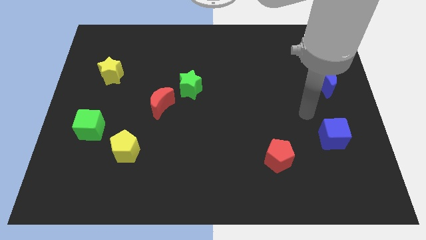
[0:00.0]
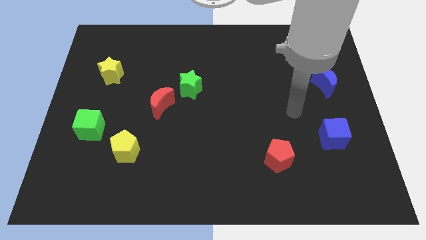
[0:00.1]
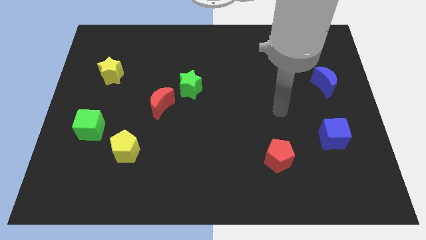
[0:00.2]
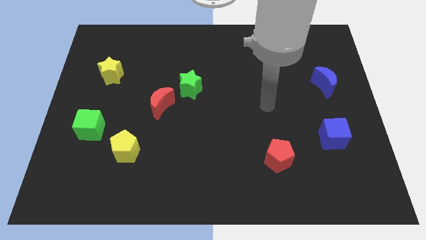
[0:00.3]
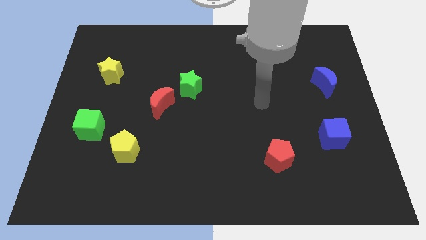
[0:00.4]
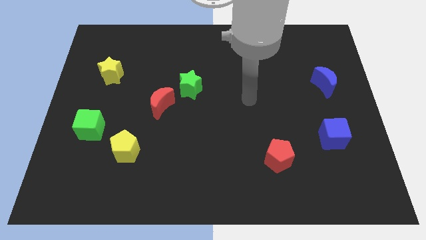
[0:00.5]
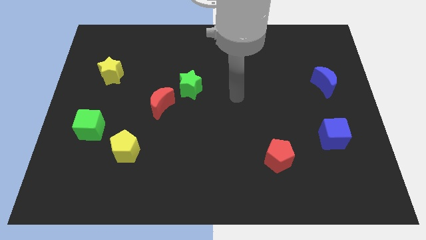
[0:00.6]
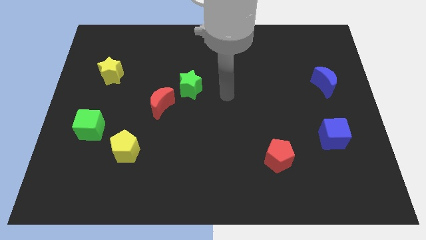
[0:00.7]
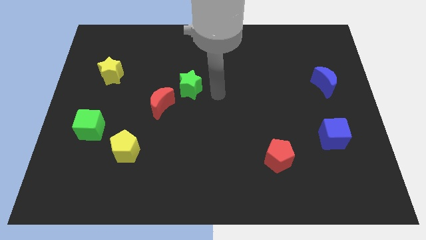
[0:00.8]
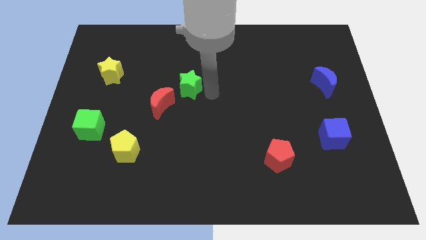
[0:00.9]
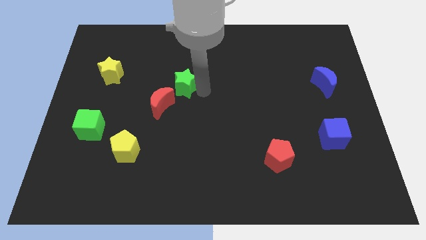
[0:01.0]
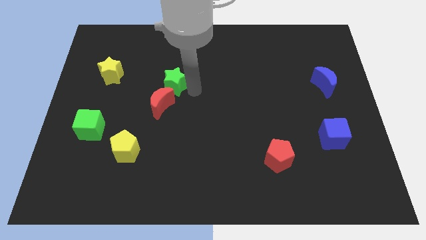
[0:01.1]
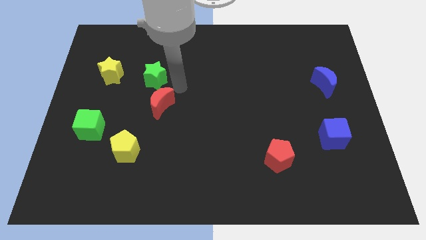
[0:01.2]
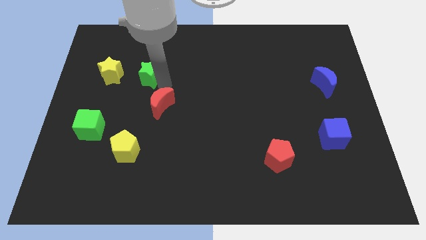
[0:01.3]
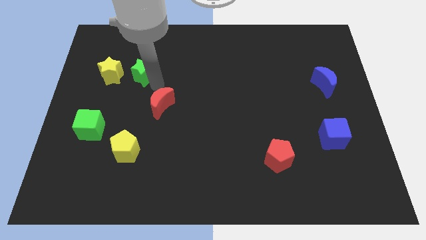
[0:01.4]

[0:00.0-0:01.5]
move the red moon away from the green star

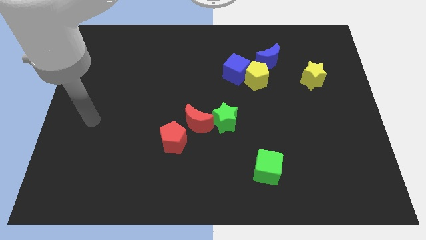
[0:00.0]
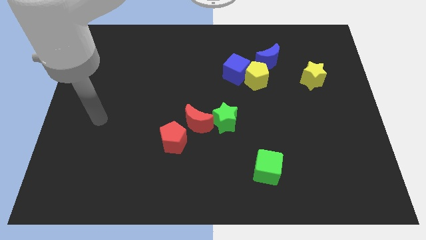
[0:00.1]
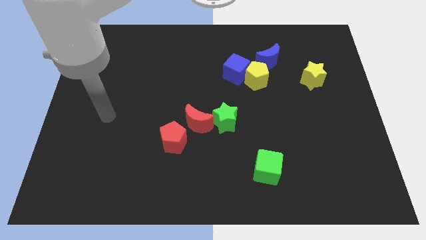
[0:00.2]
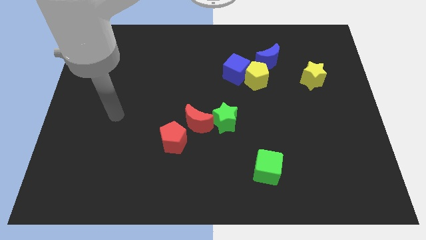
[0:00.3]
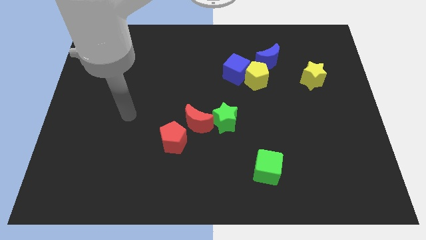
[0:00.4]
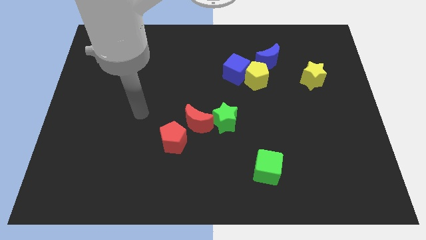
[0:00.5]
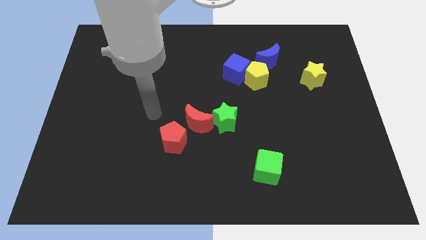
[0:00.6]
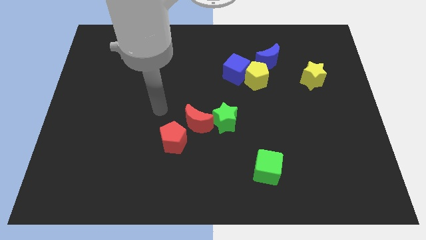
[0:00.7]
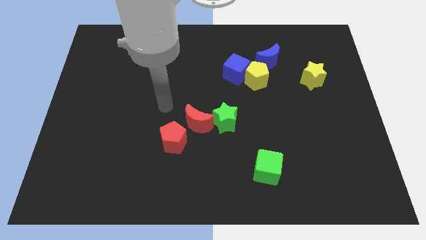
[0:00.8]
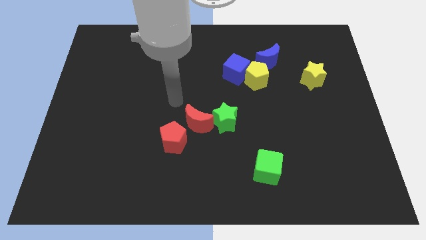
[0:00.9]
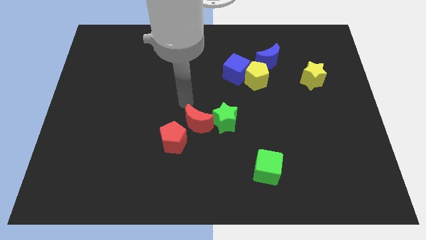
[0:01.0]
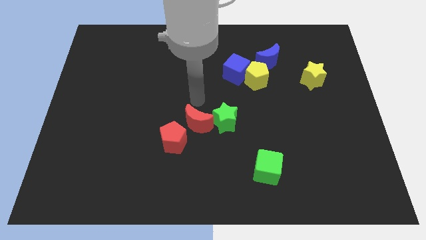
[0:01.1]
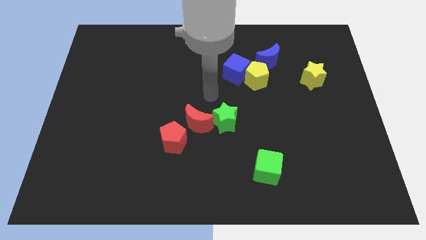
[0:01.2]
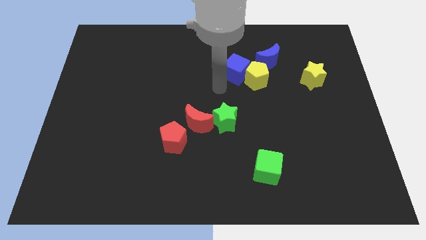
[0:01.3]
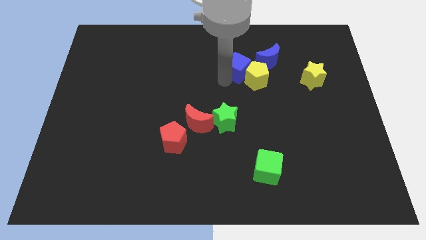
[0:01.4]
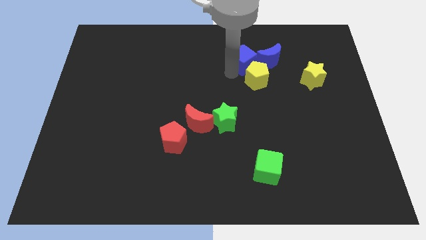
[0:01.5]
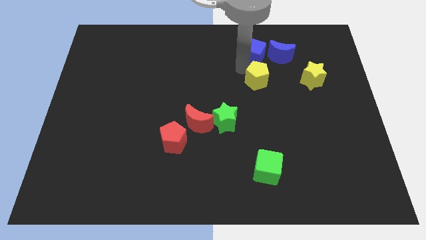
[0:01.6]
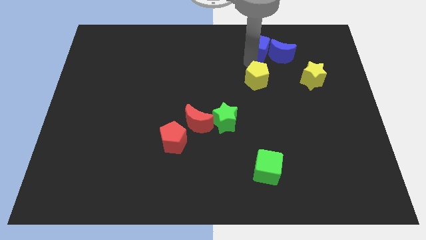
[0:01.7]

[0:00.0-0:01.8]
pull the yellow pentagon apart from the blue cube and blue moon

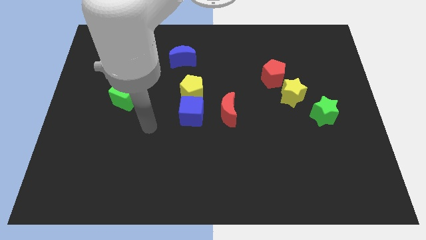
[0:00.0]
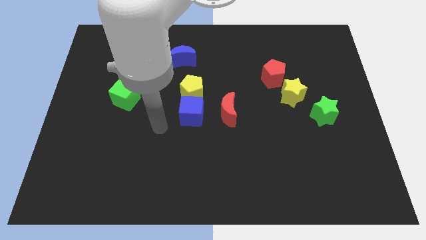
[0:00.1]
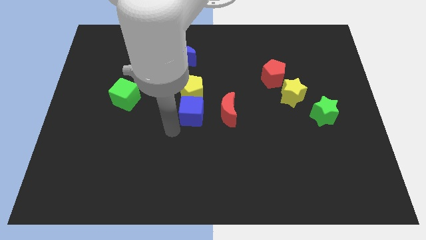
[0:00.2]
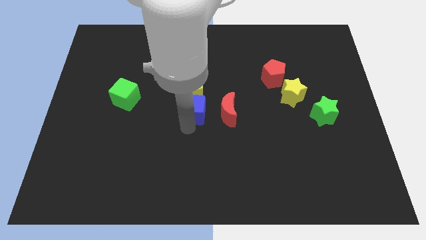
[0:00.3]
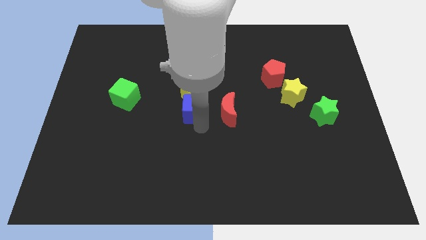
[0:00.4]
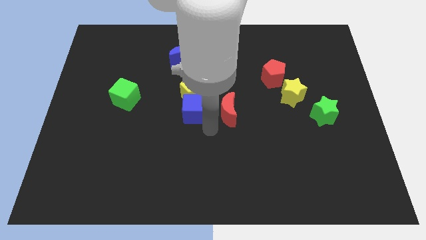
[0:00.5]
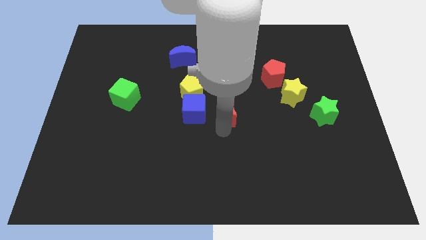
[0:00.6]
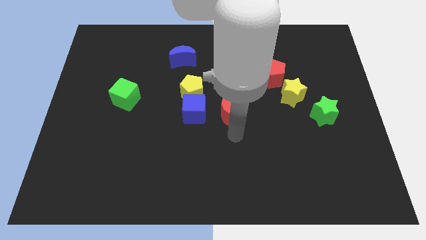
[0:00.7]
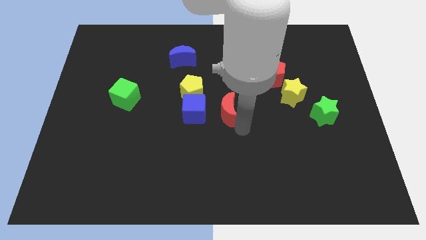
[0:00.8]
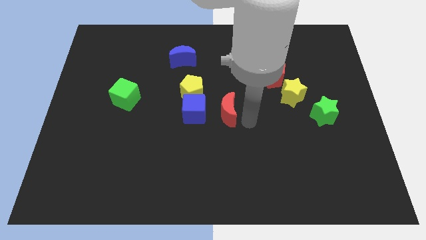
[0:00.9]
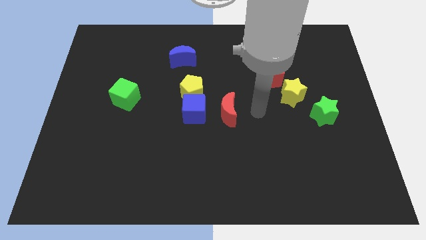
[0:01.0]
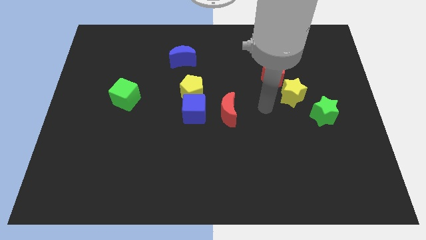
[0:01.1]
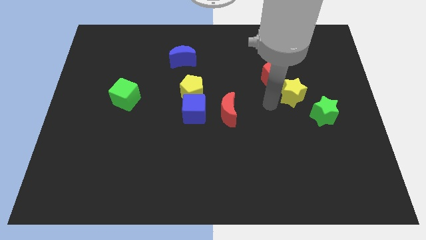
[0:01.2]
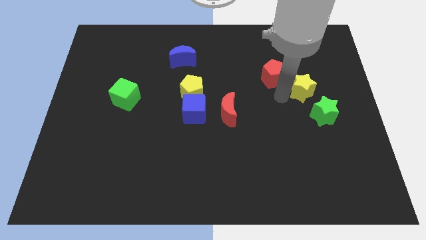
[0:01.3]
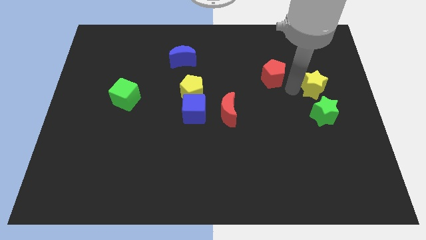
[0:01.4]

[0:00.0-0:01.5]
move the red pentagon away from the yellow star

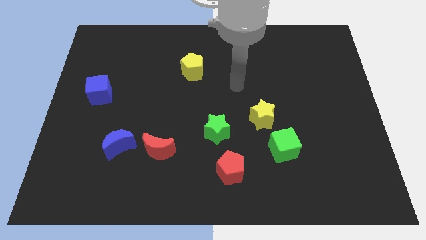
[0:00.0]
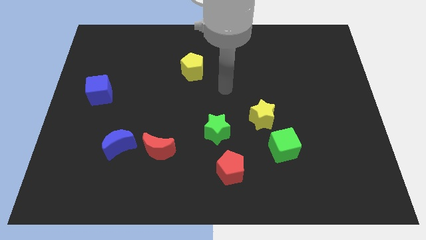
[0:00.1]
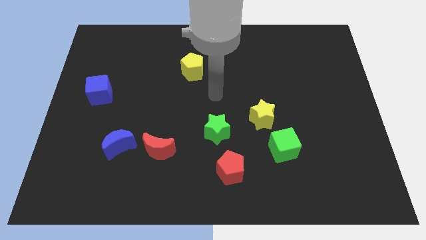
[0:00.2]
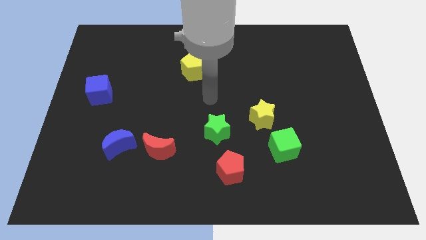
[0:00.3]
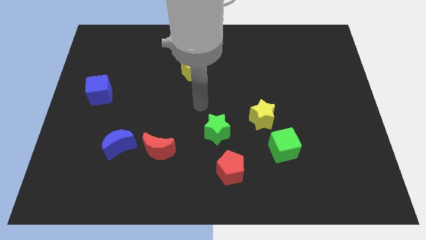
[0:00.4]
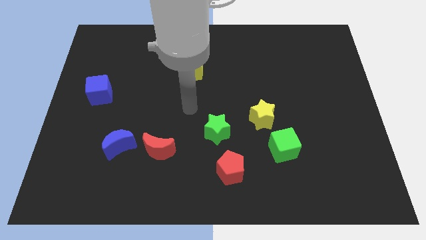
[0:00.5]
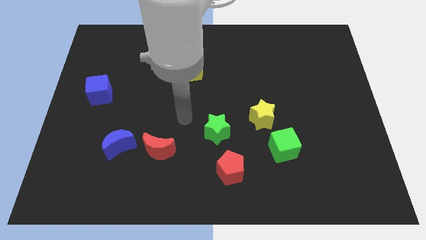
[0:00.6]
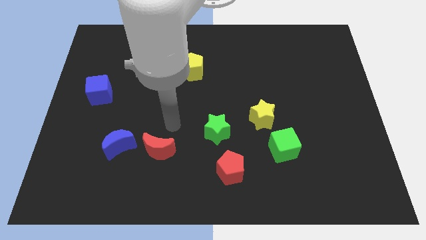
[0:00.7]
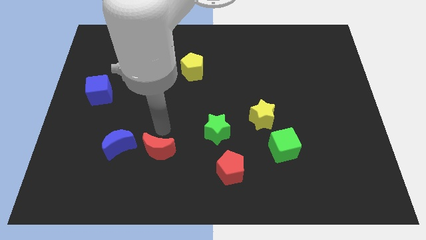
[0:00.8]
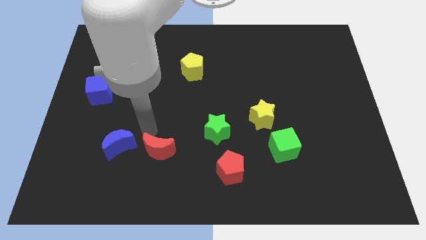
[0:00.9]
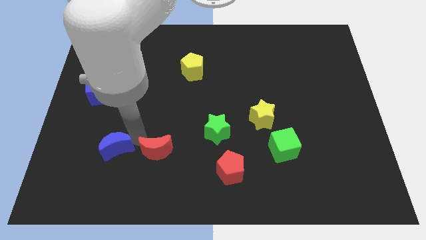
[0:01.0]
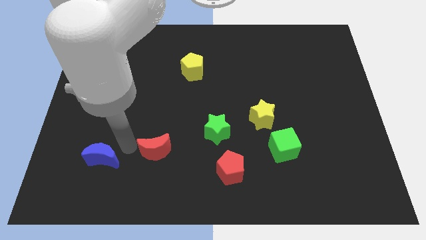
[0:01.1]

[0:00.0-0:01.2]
move the red moon away from the blue moon

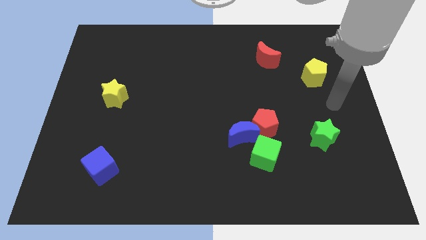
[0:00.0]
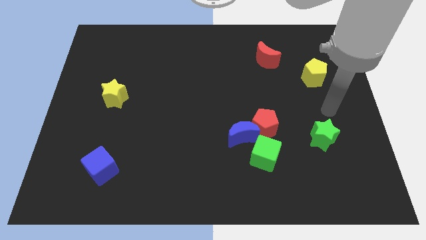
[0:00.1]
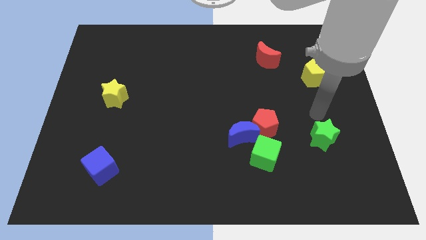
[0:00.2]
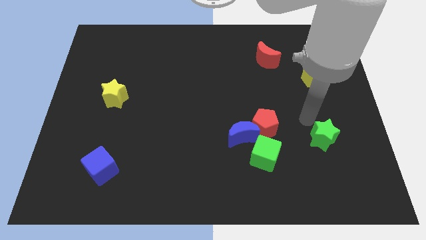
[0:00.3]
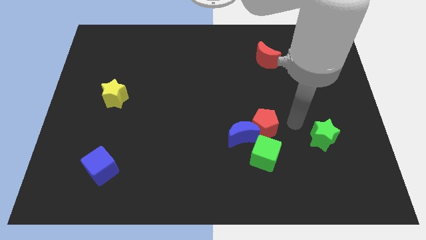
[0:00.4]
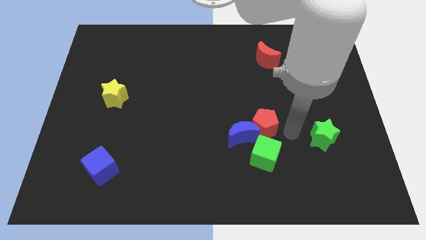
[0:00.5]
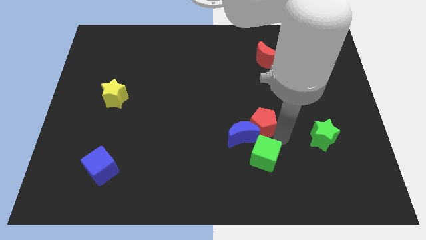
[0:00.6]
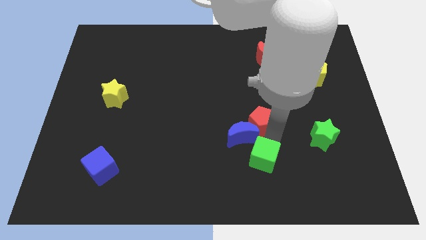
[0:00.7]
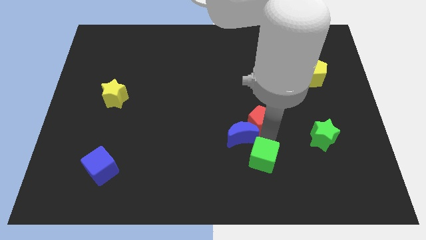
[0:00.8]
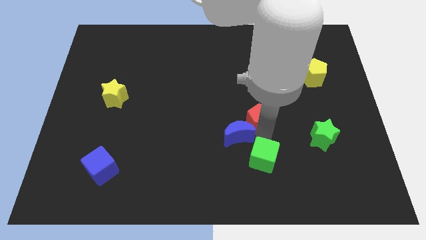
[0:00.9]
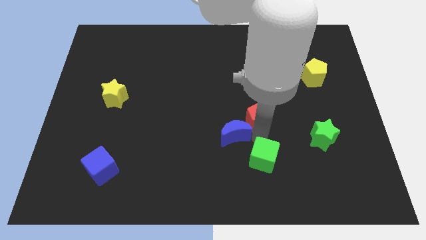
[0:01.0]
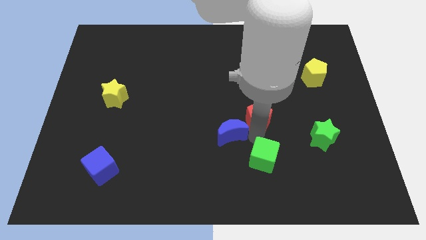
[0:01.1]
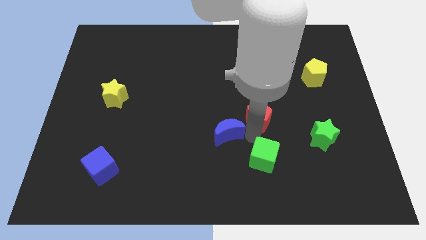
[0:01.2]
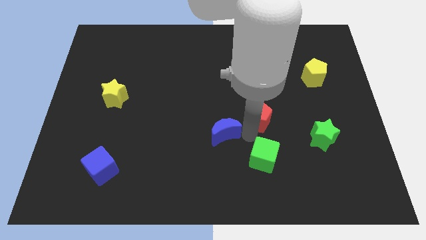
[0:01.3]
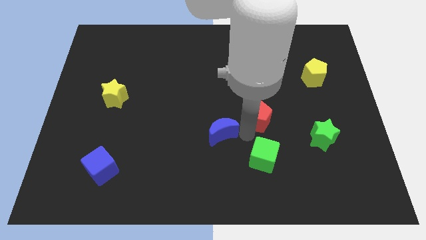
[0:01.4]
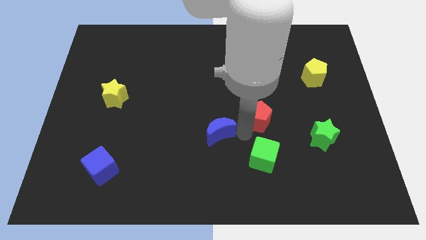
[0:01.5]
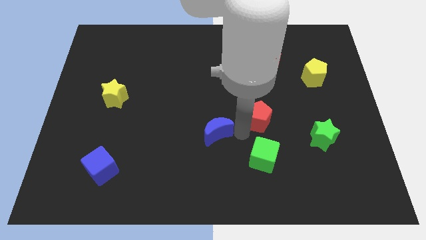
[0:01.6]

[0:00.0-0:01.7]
pull the blue moon apart from the red pentagon and green cube

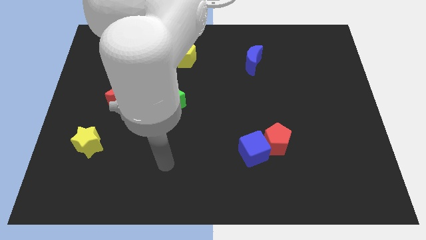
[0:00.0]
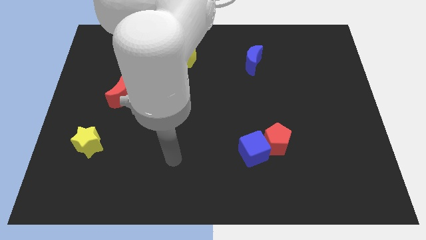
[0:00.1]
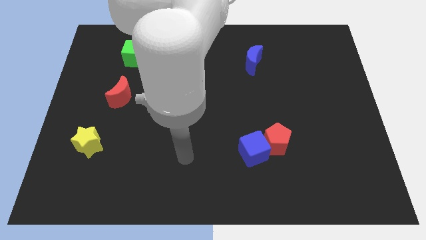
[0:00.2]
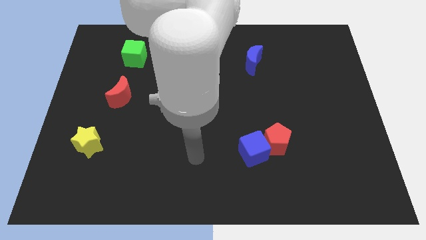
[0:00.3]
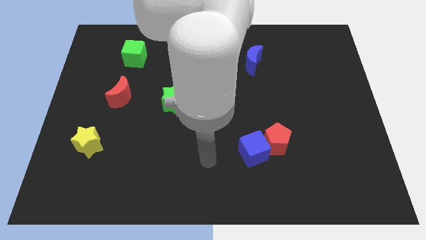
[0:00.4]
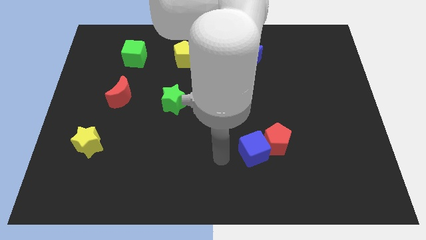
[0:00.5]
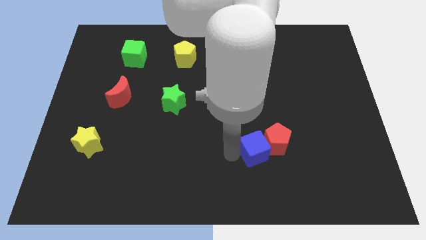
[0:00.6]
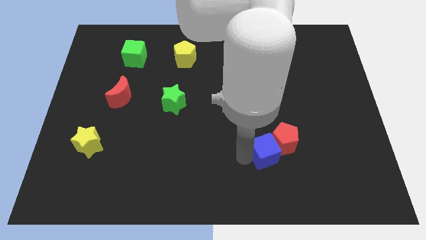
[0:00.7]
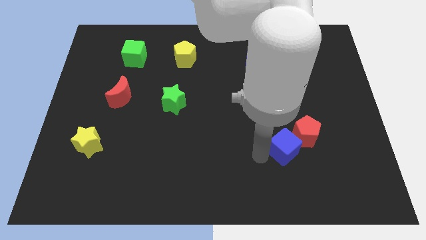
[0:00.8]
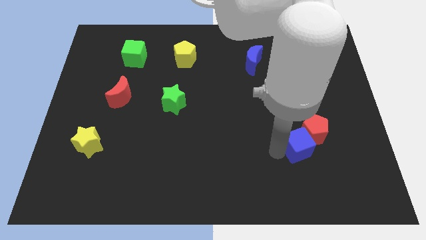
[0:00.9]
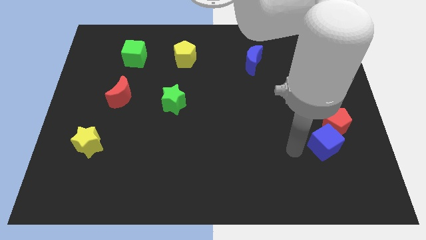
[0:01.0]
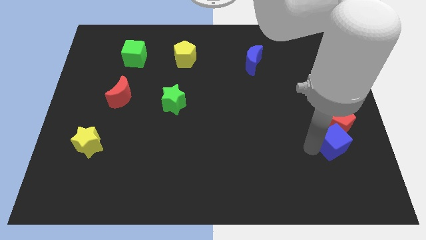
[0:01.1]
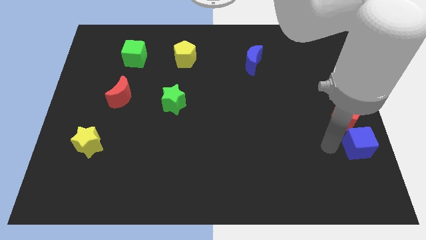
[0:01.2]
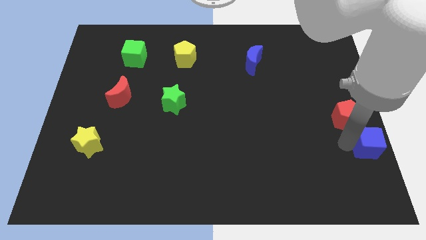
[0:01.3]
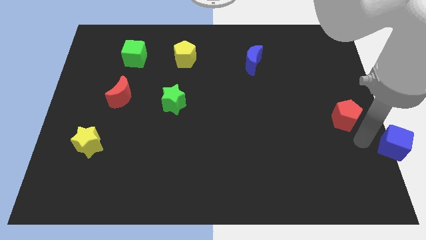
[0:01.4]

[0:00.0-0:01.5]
separate the red pentagon from the blue cube
